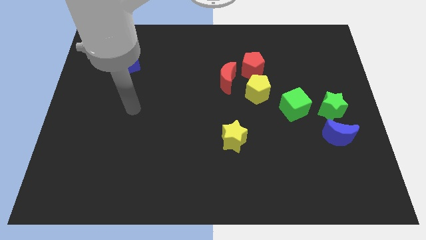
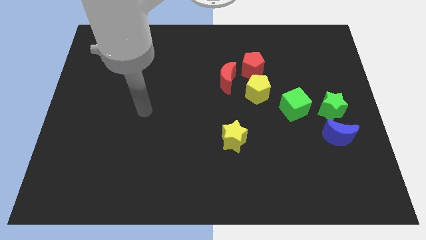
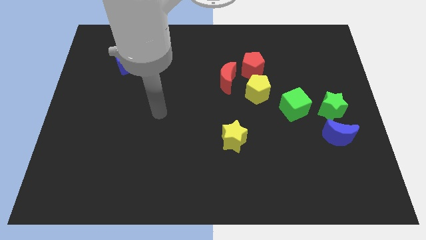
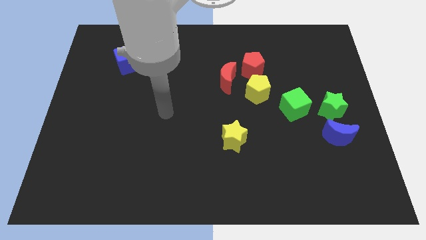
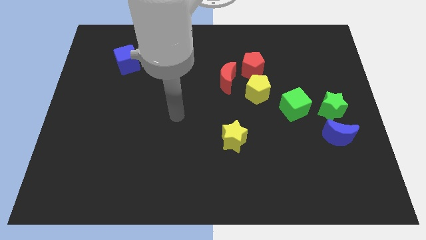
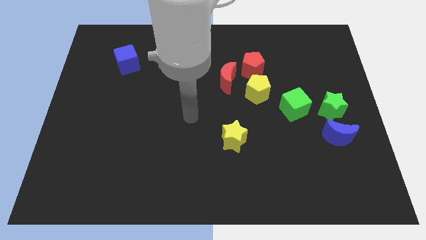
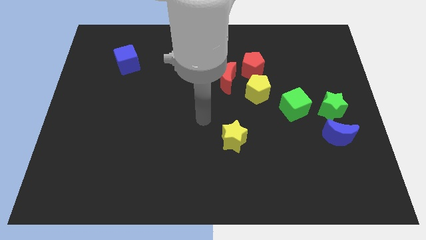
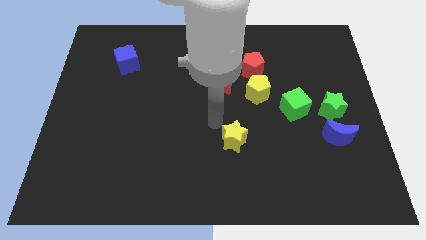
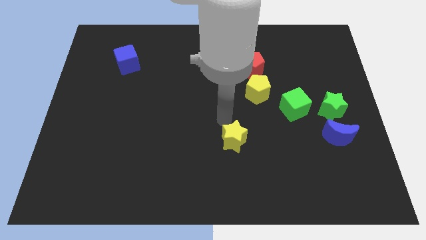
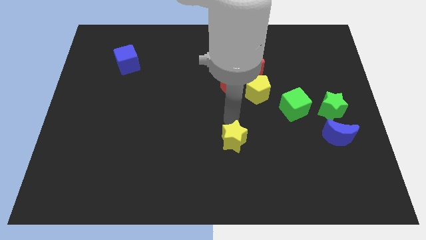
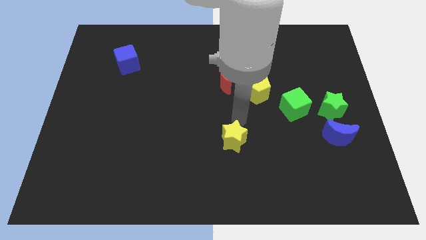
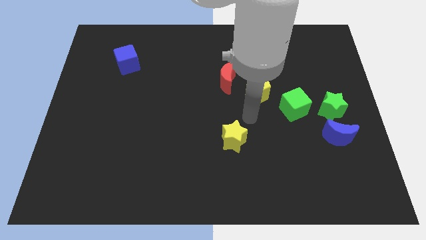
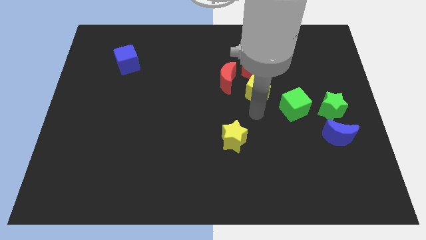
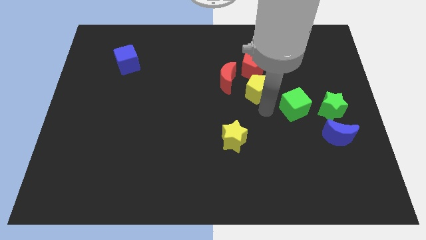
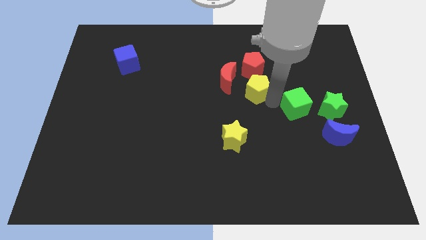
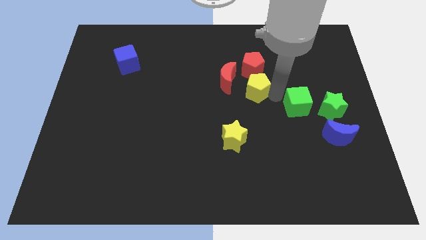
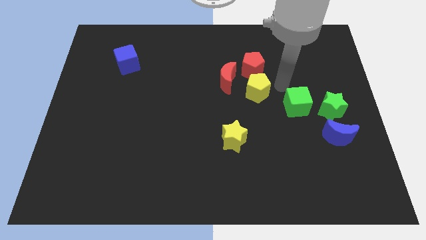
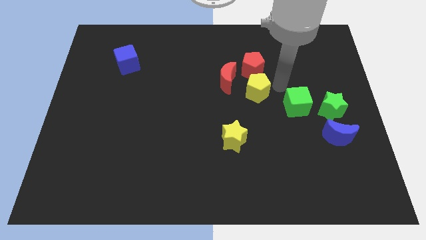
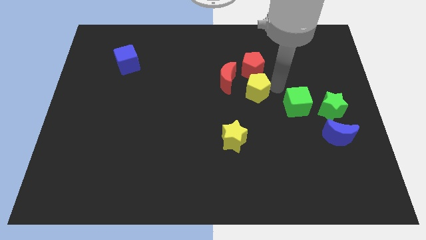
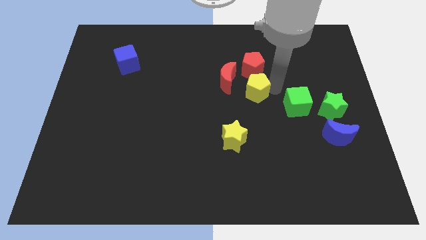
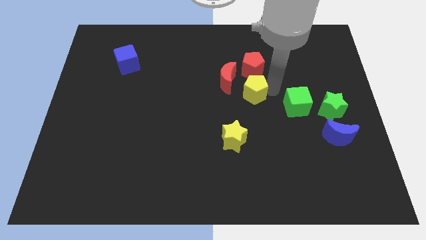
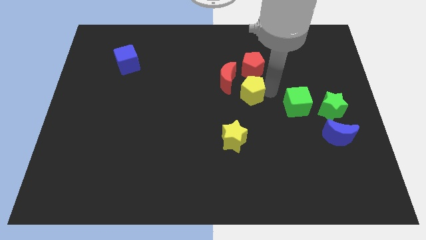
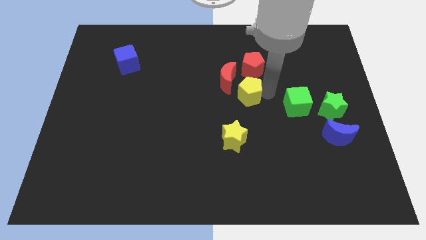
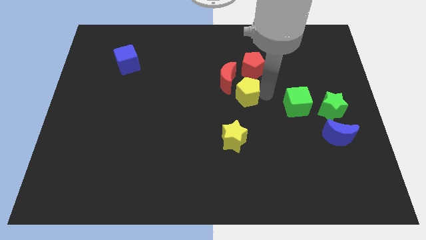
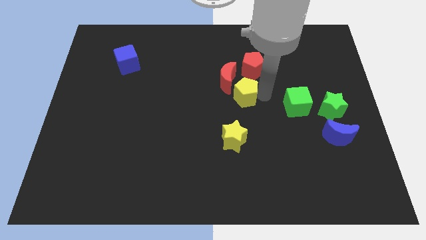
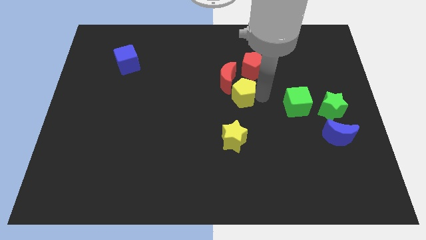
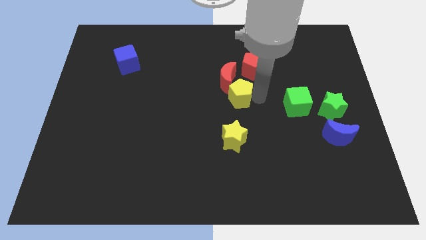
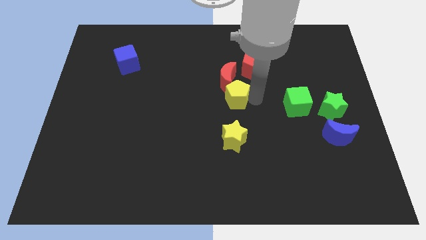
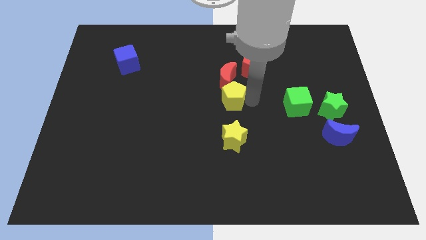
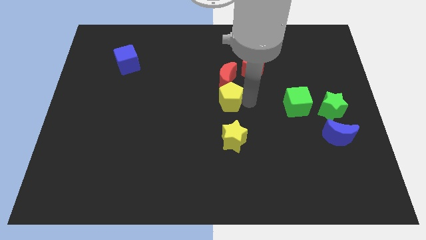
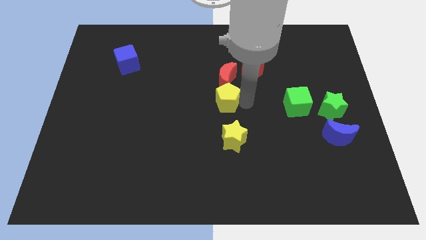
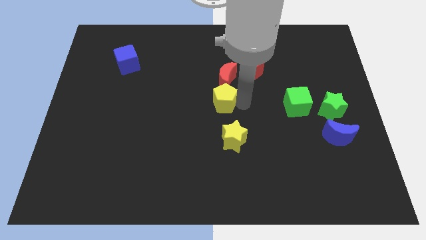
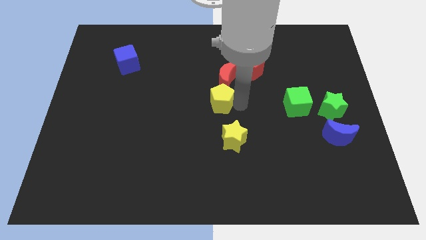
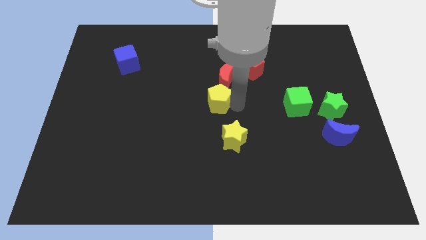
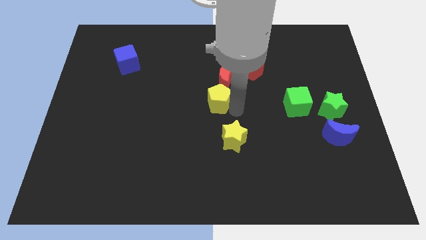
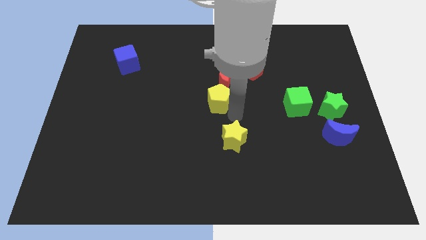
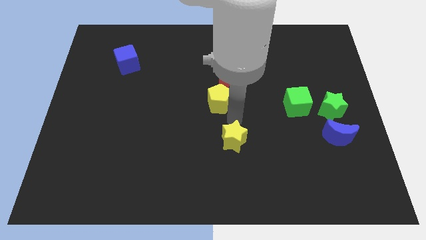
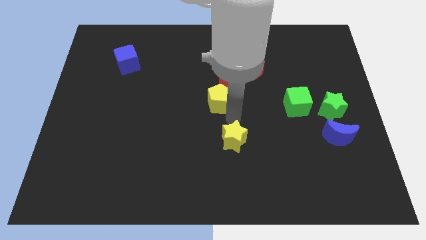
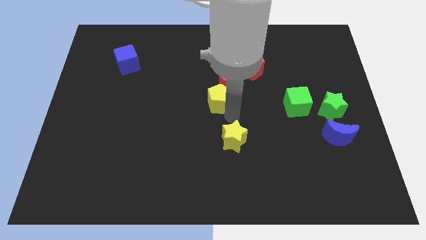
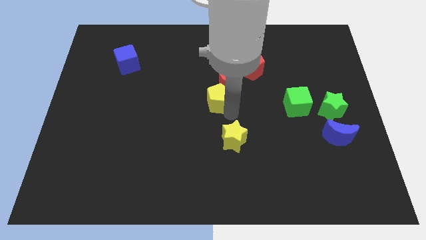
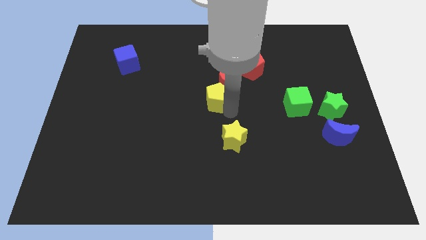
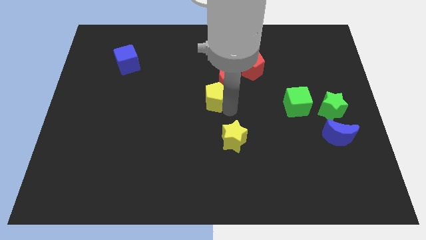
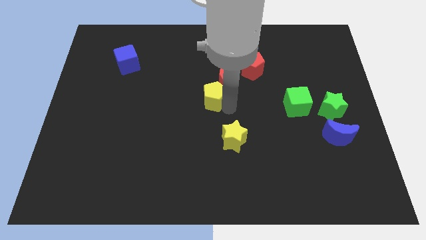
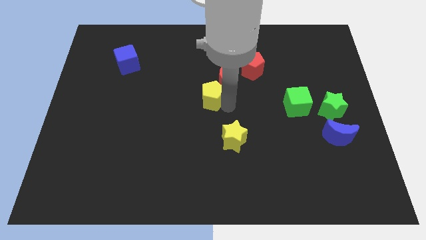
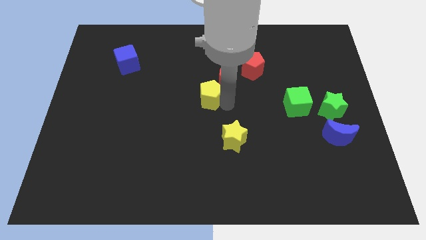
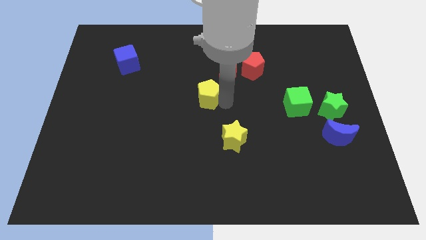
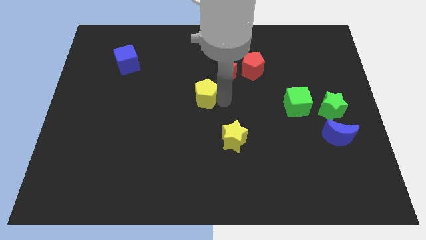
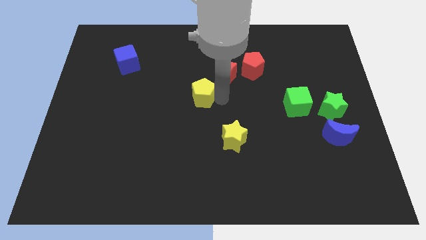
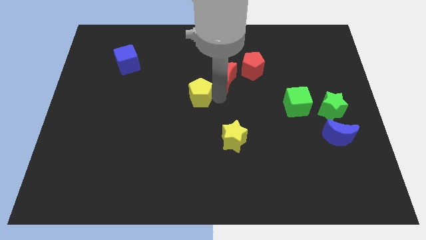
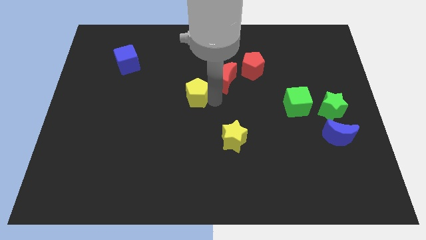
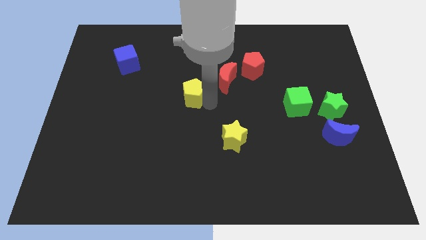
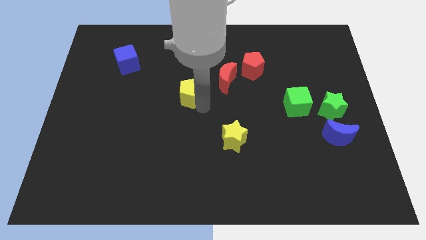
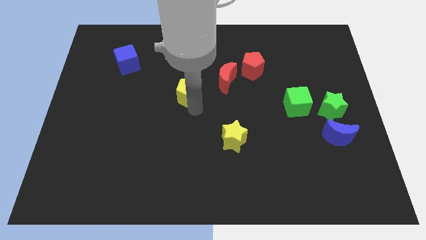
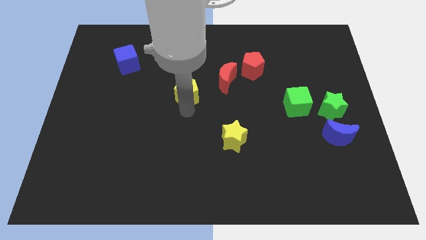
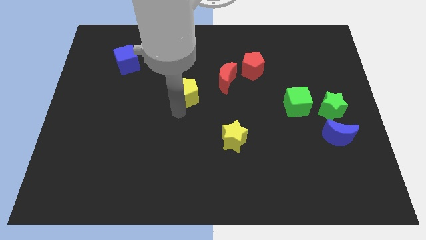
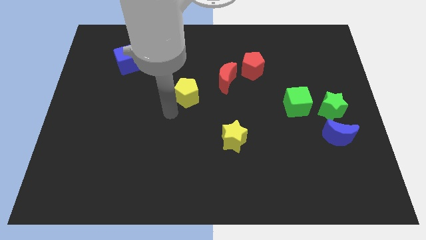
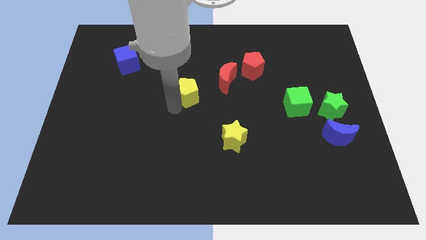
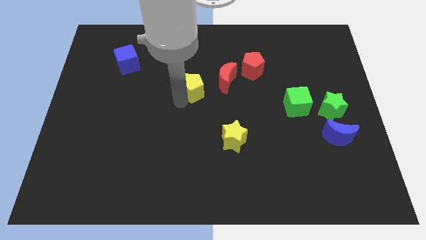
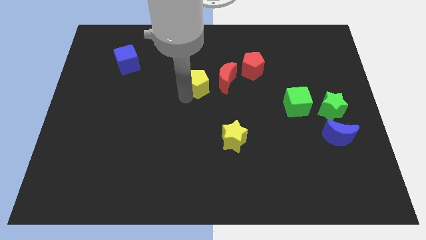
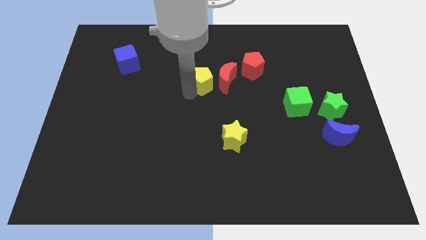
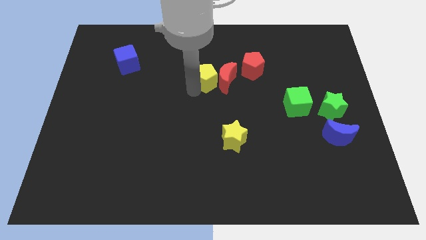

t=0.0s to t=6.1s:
slide the yellow pentagon to the top left side of the red moon

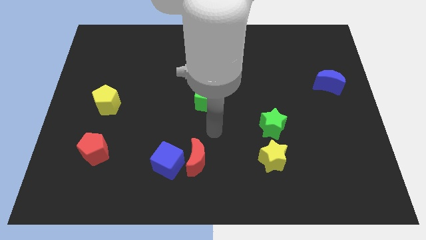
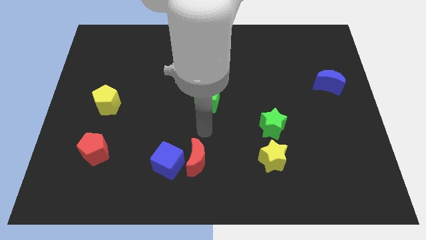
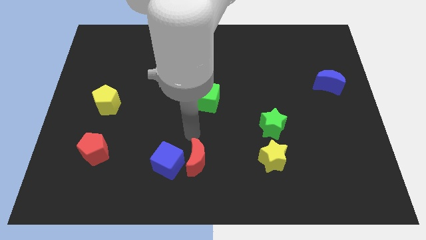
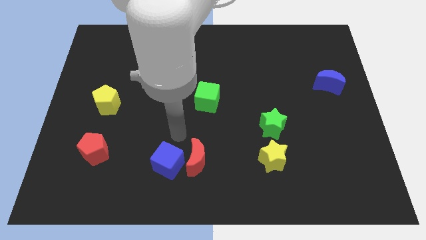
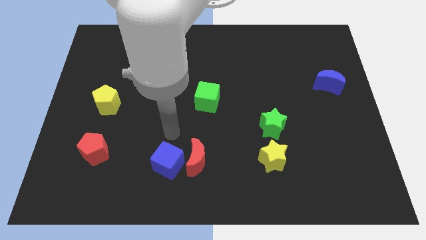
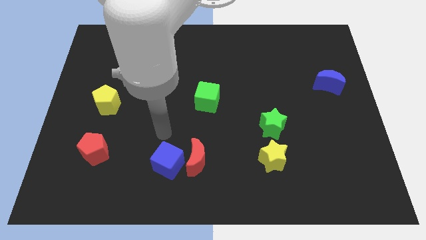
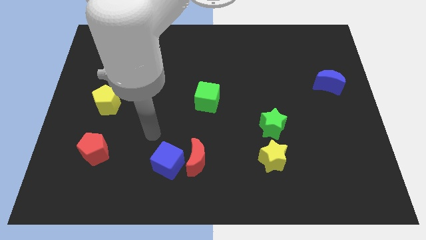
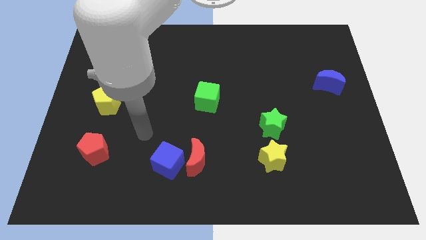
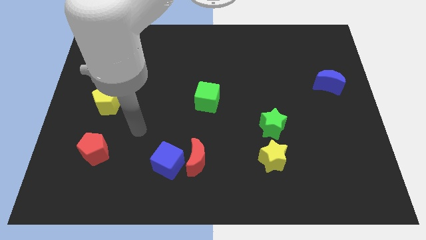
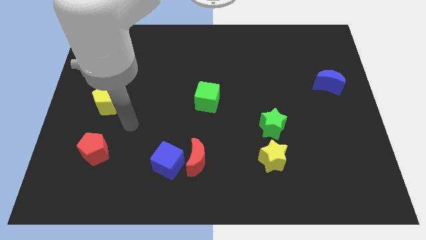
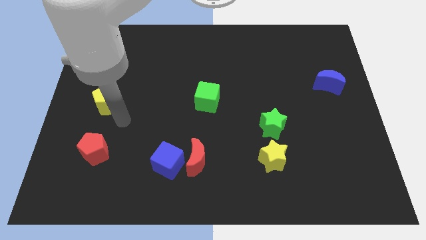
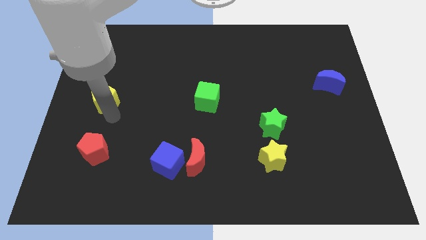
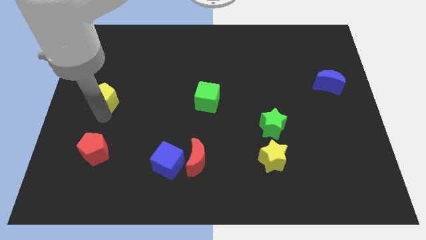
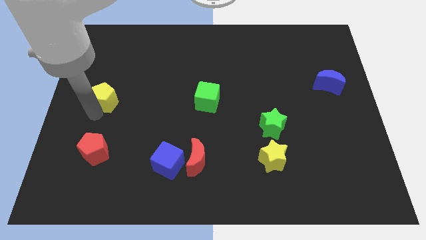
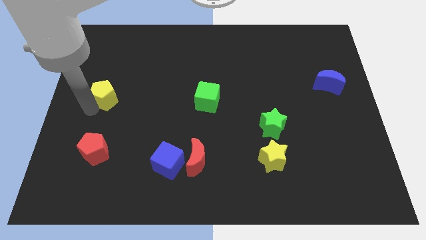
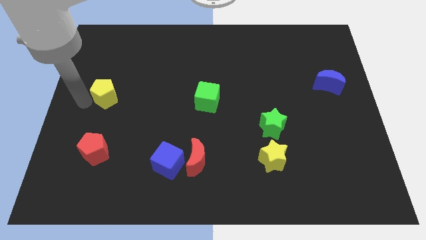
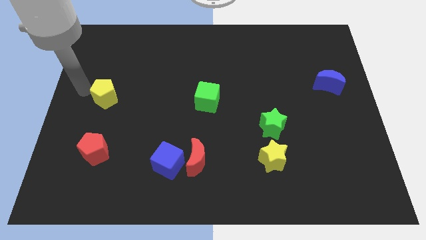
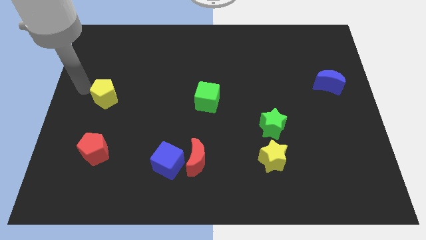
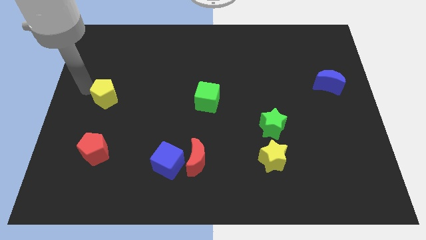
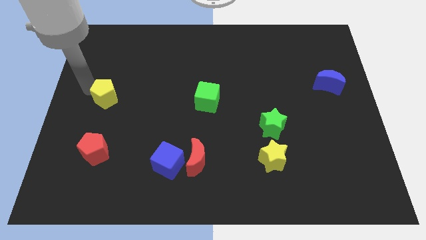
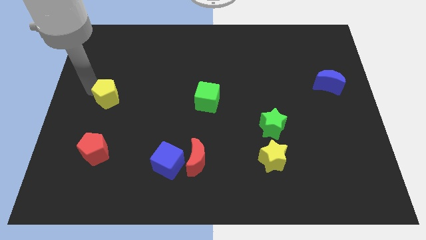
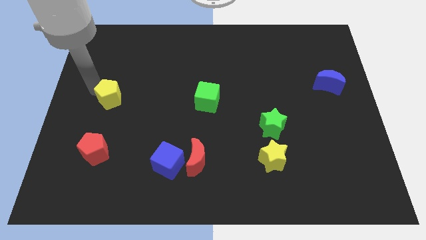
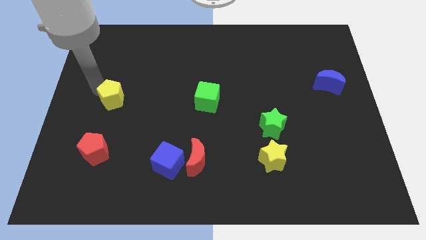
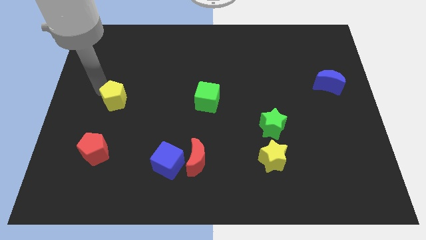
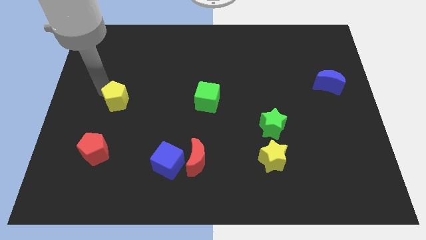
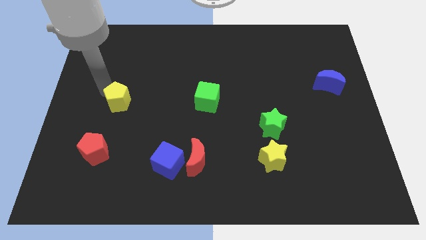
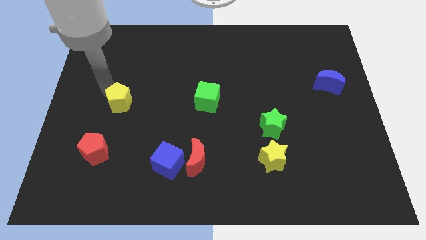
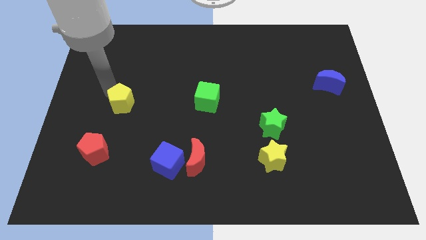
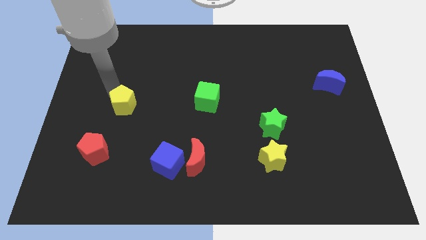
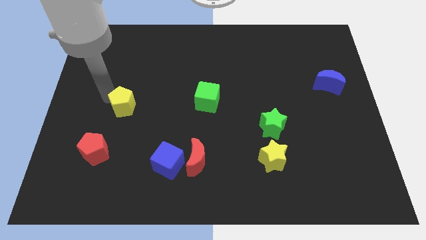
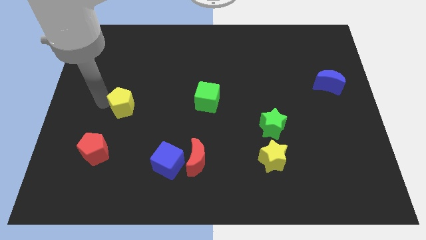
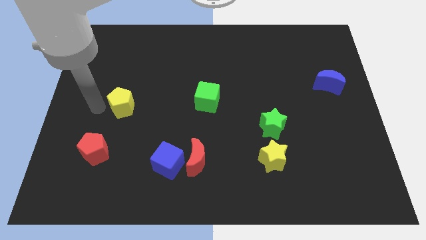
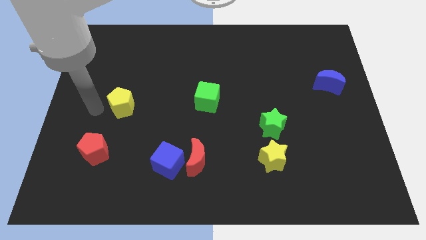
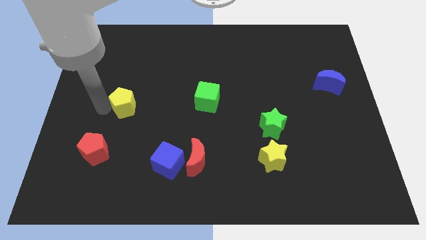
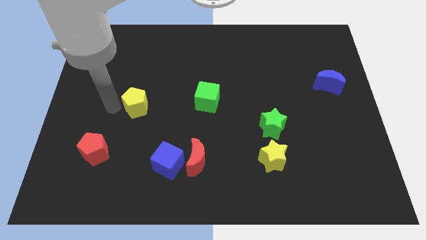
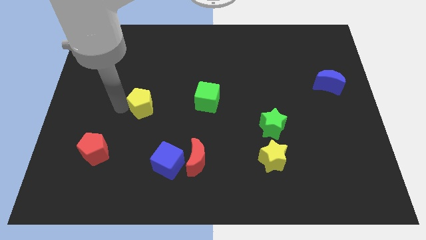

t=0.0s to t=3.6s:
put the yellow pentagon left of the green cube
